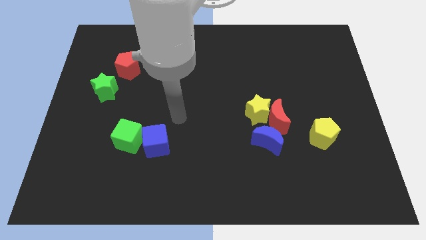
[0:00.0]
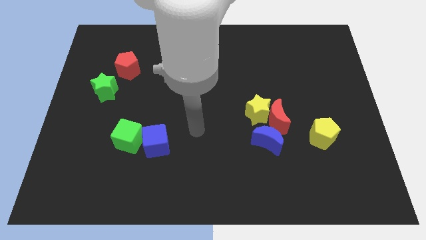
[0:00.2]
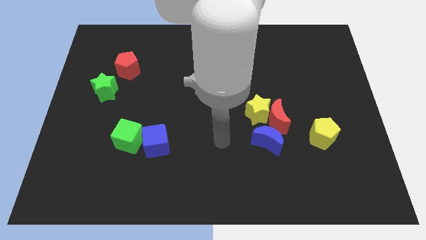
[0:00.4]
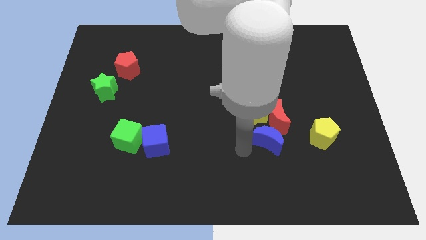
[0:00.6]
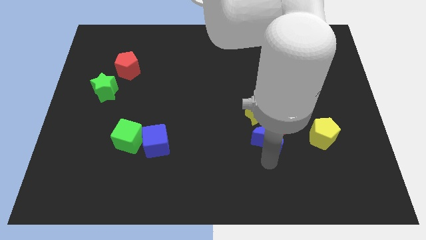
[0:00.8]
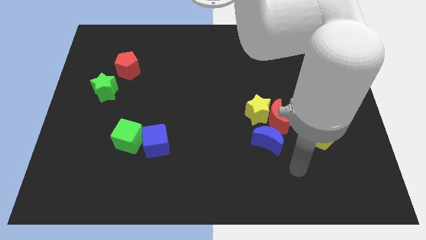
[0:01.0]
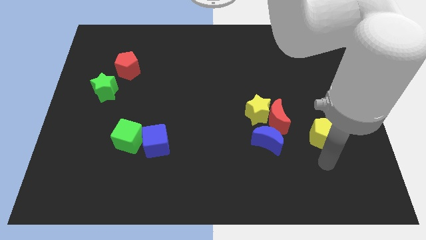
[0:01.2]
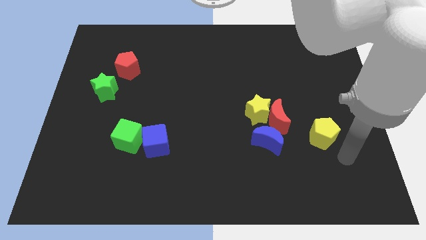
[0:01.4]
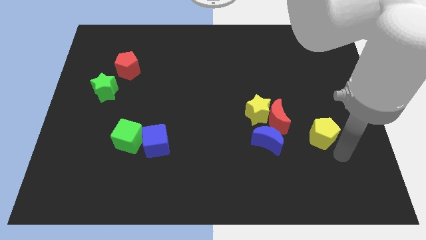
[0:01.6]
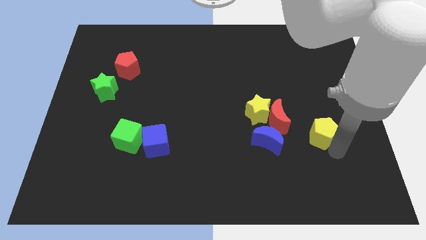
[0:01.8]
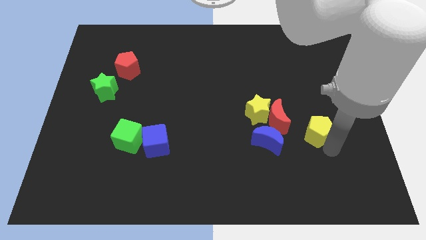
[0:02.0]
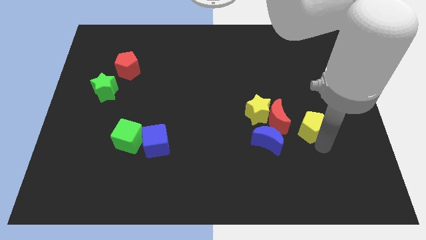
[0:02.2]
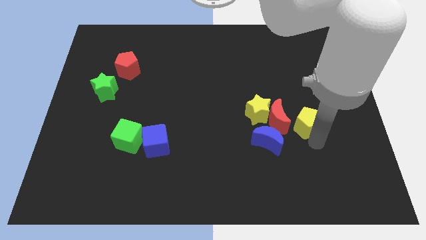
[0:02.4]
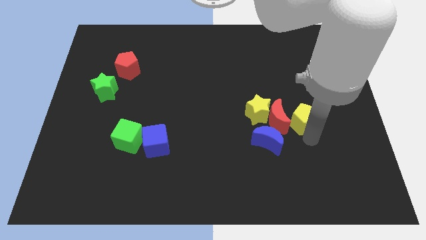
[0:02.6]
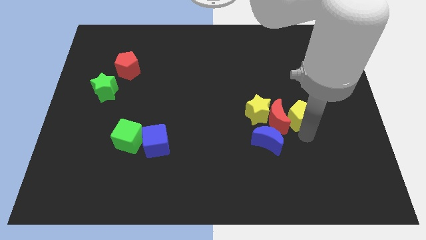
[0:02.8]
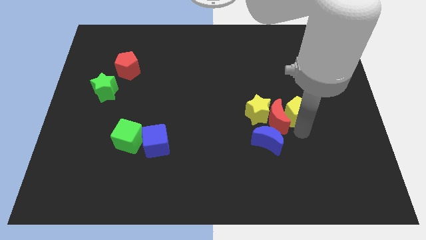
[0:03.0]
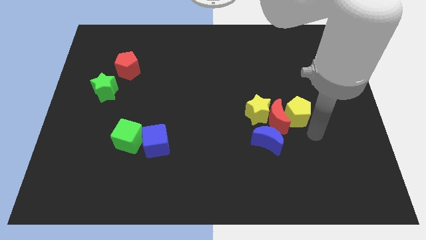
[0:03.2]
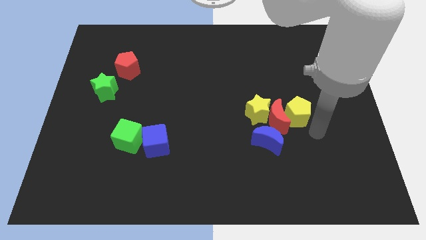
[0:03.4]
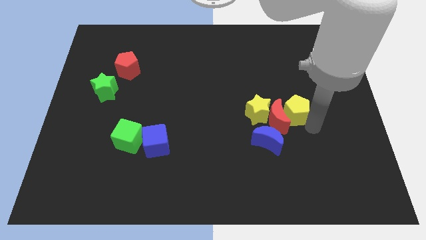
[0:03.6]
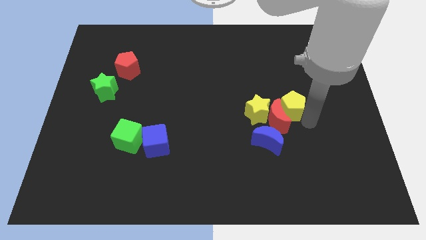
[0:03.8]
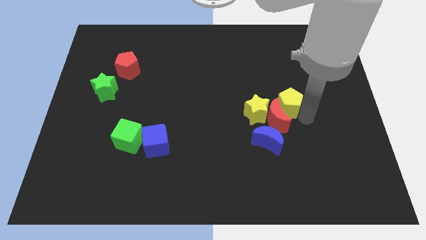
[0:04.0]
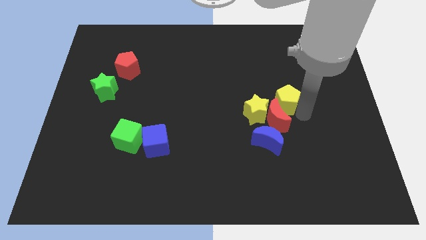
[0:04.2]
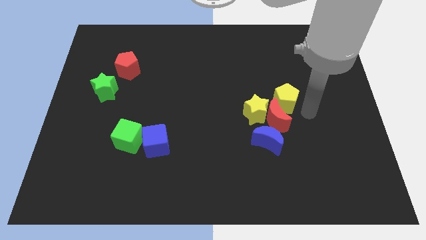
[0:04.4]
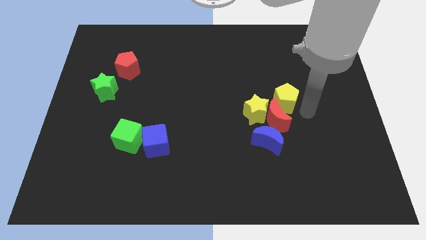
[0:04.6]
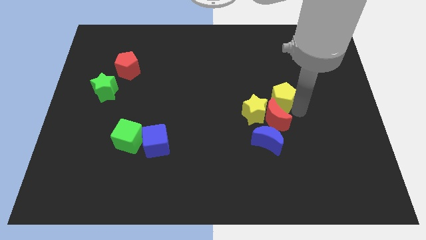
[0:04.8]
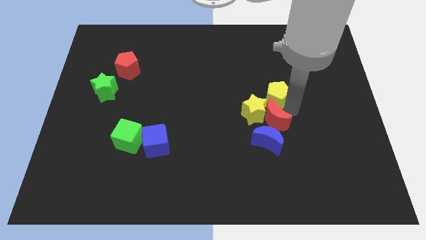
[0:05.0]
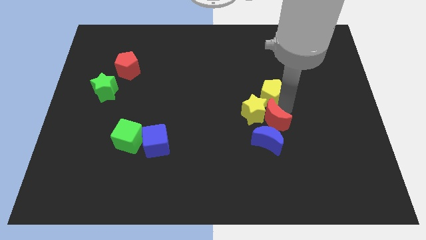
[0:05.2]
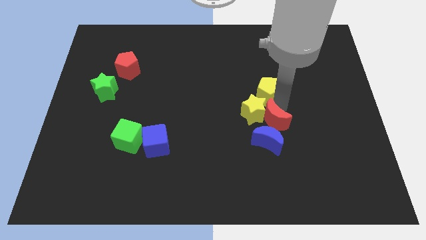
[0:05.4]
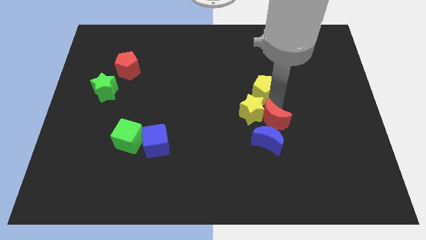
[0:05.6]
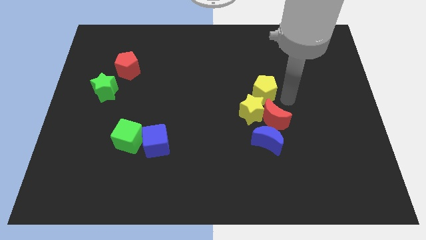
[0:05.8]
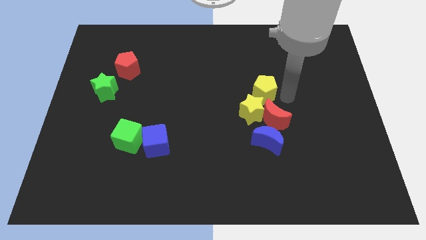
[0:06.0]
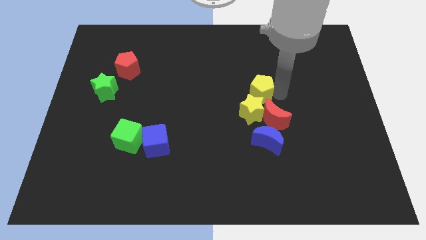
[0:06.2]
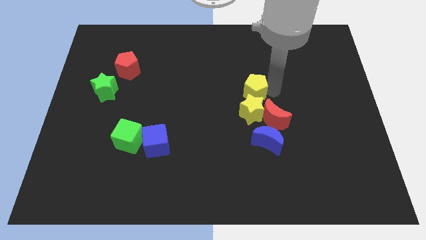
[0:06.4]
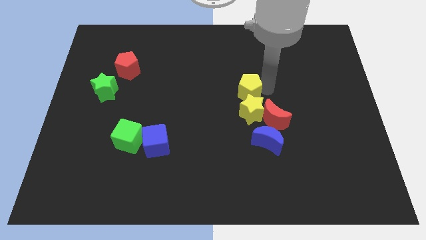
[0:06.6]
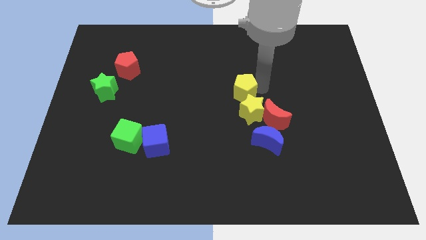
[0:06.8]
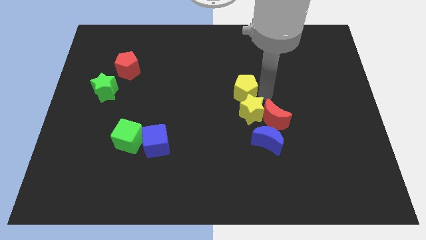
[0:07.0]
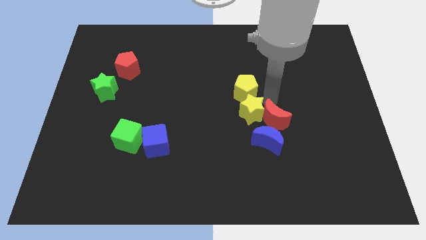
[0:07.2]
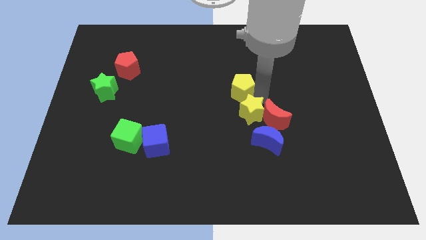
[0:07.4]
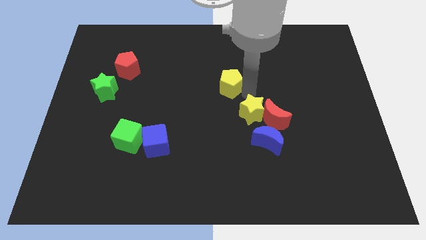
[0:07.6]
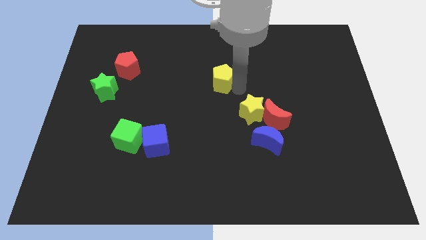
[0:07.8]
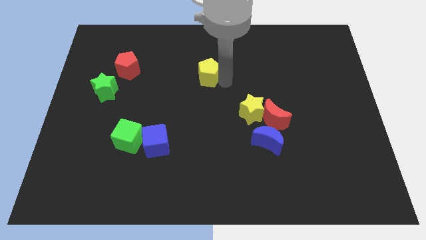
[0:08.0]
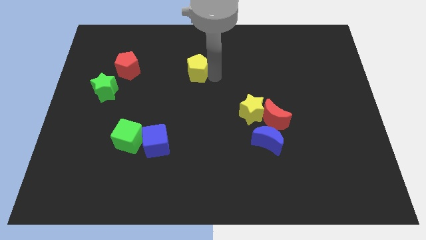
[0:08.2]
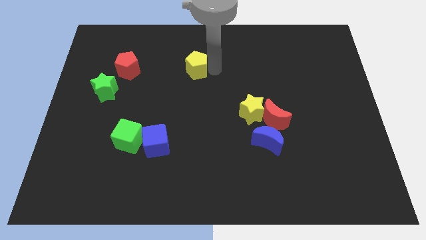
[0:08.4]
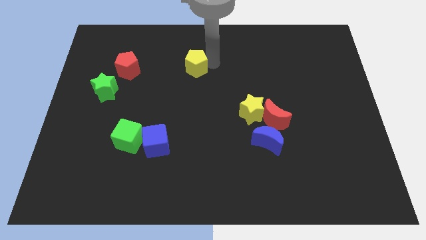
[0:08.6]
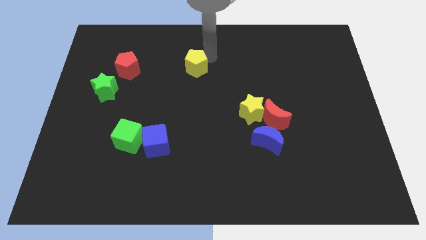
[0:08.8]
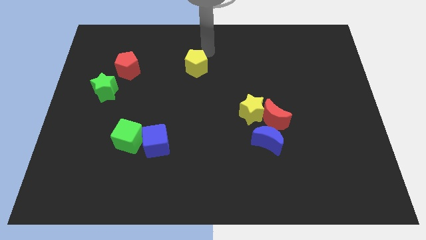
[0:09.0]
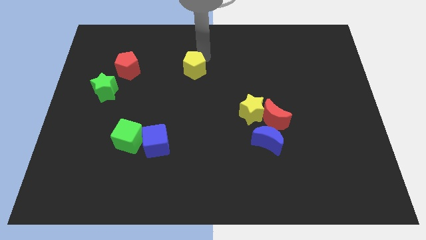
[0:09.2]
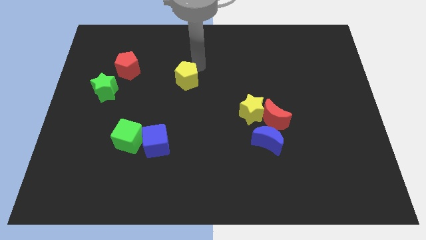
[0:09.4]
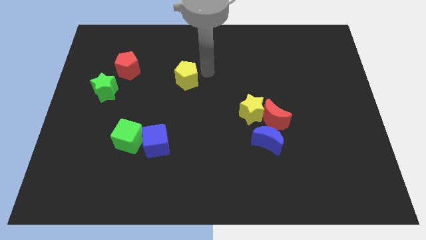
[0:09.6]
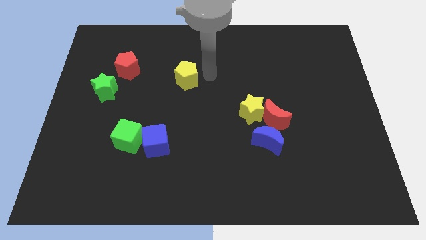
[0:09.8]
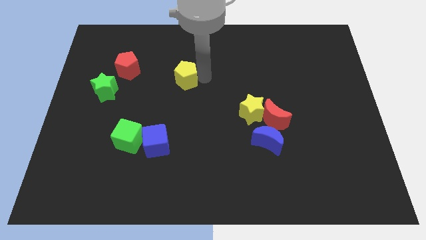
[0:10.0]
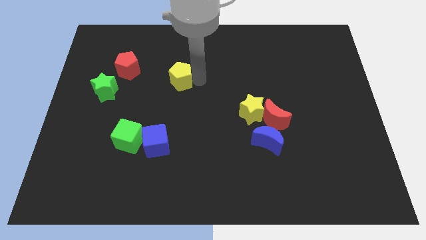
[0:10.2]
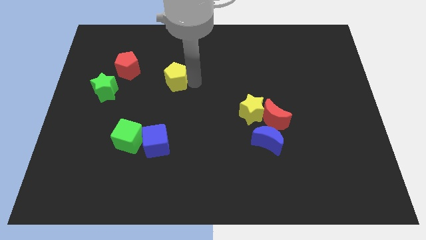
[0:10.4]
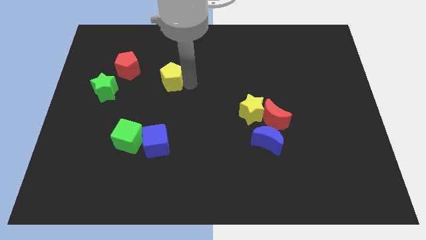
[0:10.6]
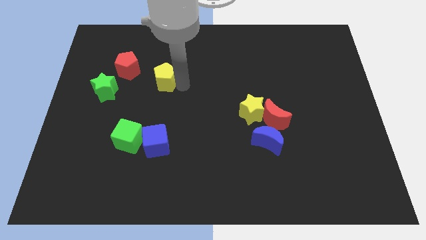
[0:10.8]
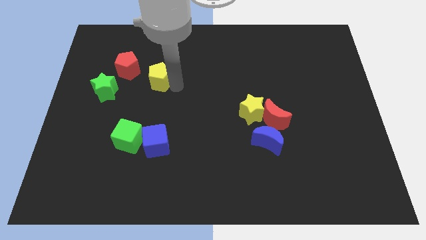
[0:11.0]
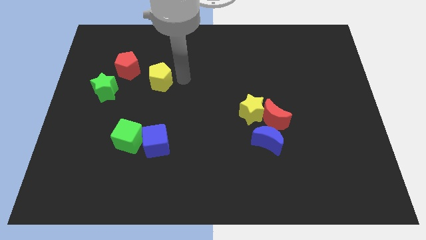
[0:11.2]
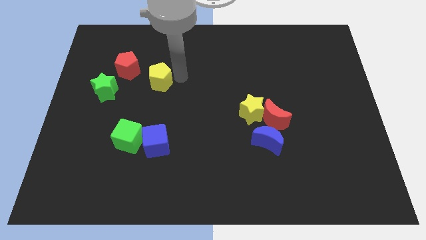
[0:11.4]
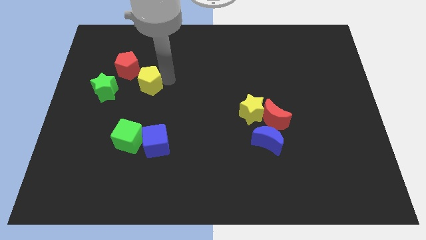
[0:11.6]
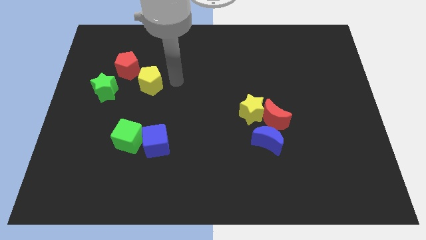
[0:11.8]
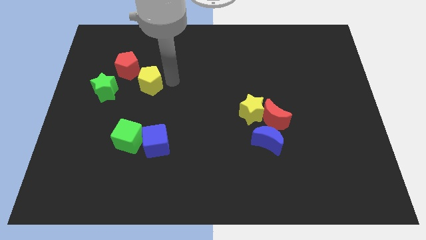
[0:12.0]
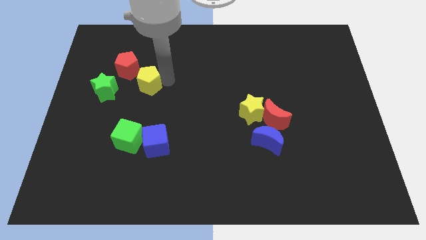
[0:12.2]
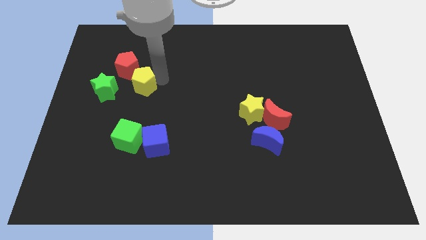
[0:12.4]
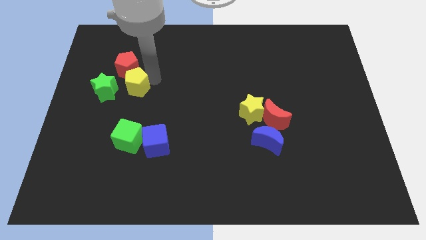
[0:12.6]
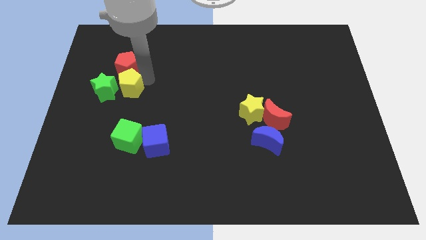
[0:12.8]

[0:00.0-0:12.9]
put the yellow pentagon to the green star

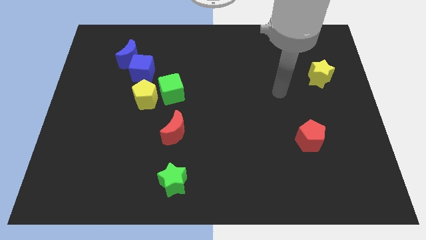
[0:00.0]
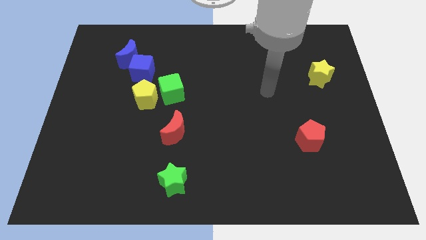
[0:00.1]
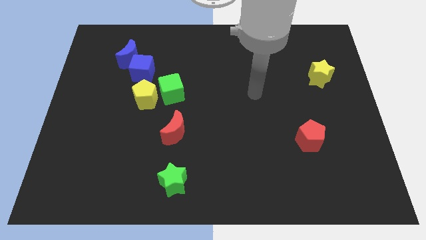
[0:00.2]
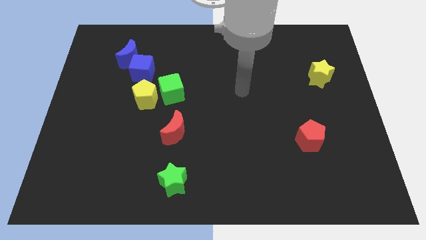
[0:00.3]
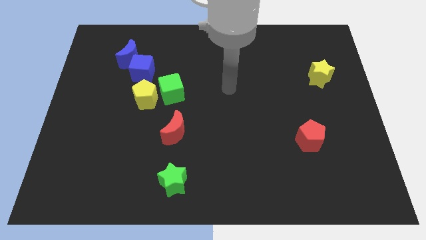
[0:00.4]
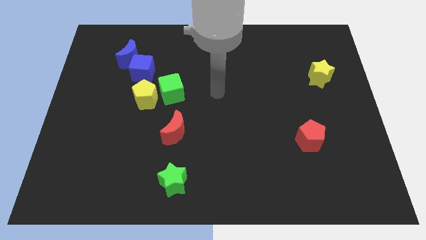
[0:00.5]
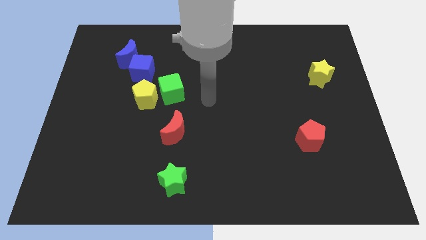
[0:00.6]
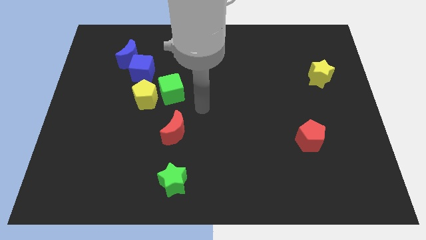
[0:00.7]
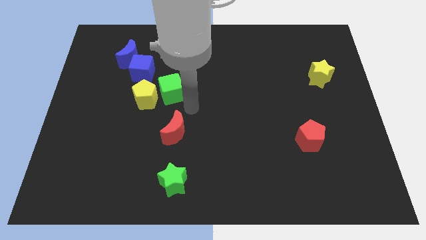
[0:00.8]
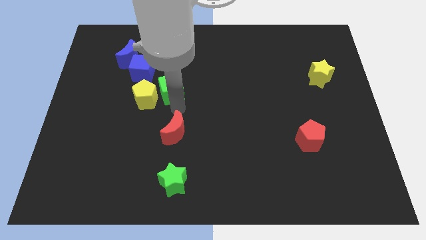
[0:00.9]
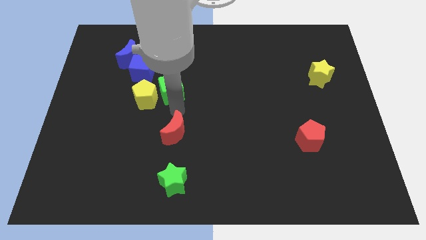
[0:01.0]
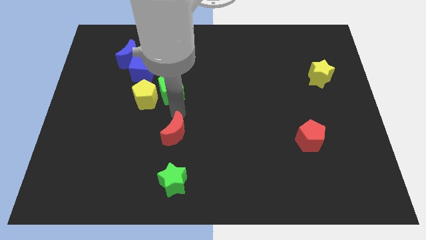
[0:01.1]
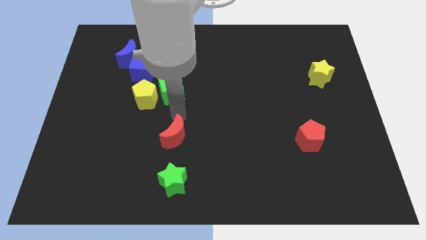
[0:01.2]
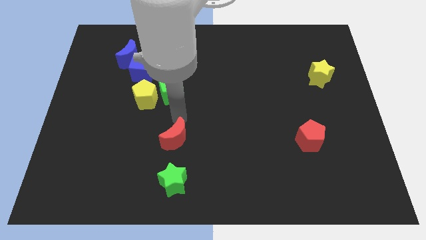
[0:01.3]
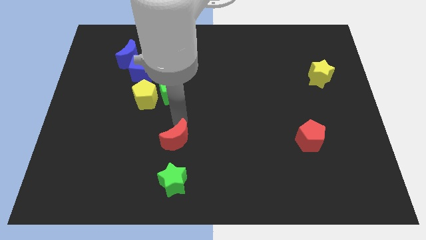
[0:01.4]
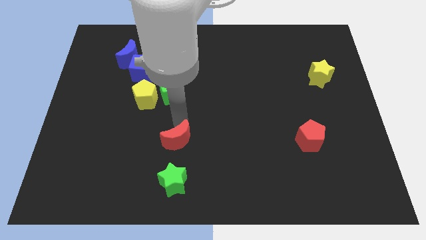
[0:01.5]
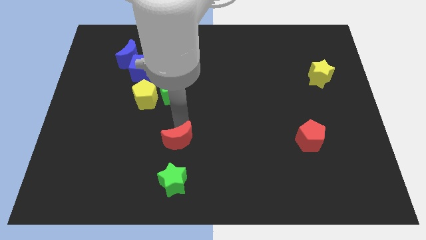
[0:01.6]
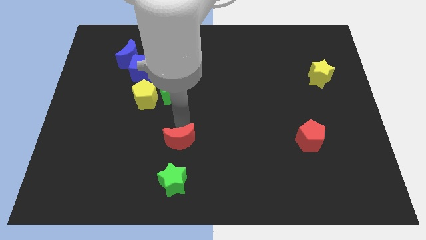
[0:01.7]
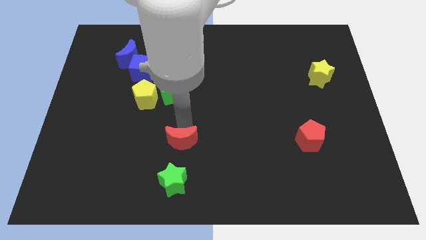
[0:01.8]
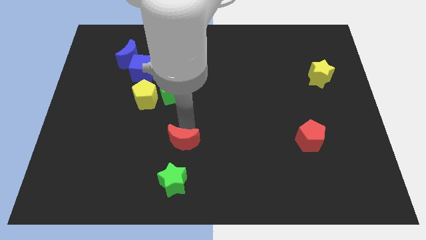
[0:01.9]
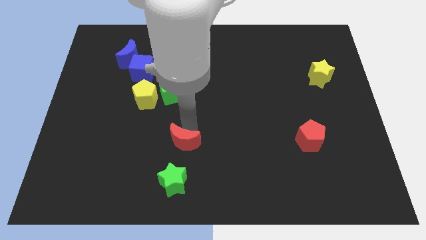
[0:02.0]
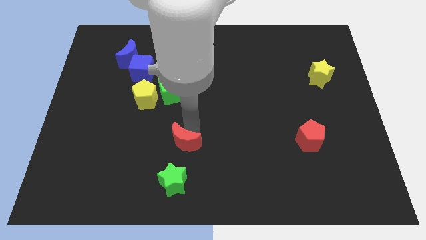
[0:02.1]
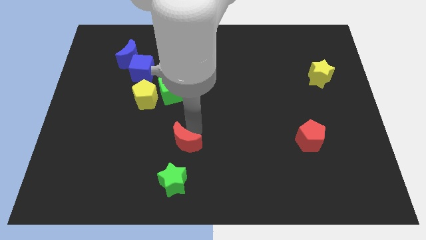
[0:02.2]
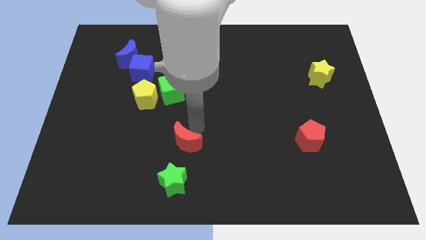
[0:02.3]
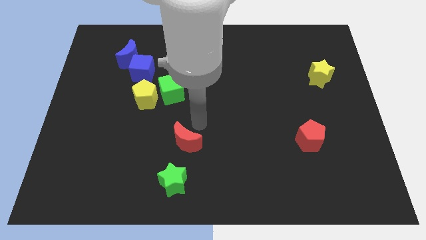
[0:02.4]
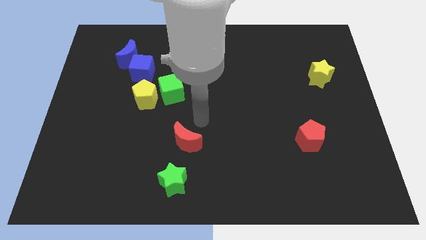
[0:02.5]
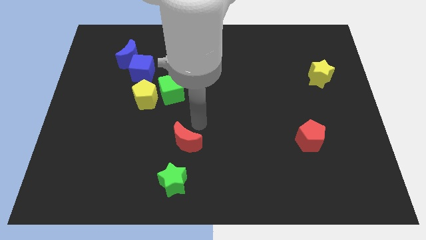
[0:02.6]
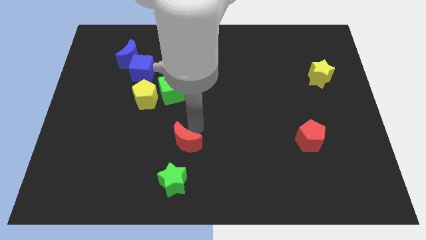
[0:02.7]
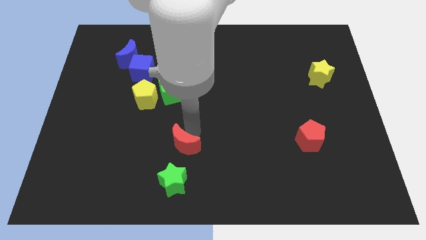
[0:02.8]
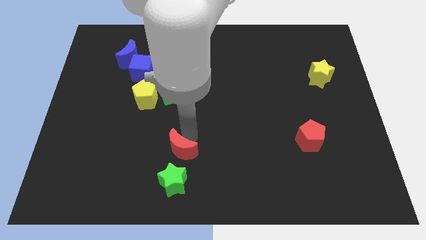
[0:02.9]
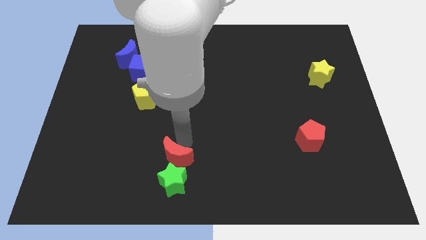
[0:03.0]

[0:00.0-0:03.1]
push the red moon next to the green star
